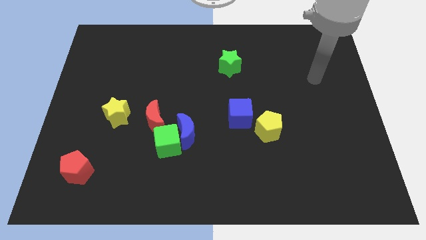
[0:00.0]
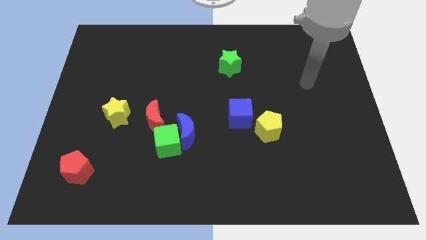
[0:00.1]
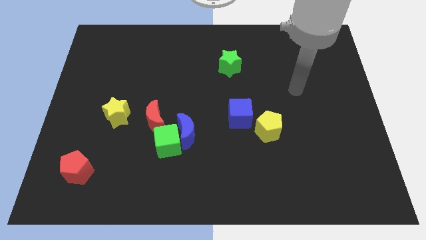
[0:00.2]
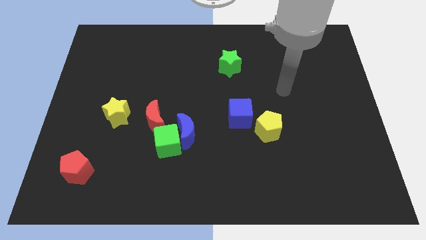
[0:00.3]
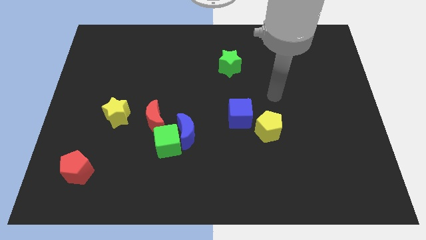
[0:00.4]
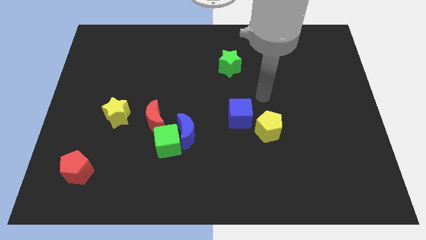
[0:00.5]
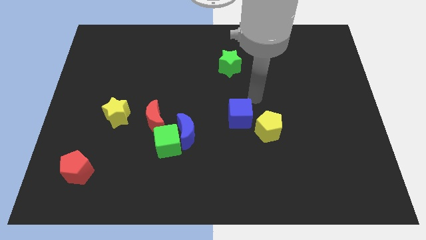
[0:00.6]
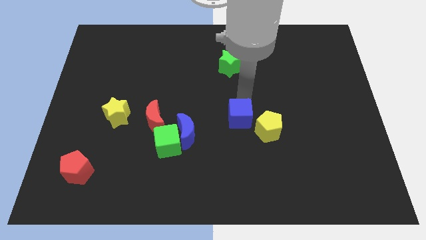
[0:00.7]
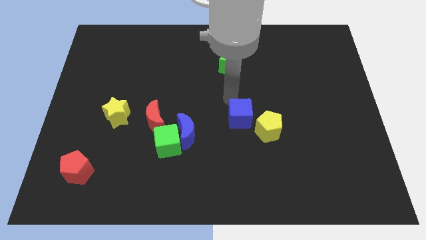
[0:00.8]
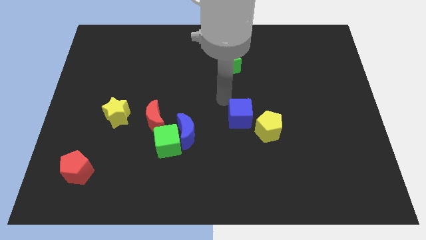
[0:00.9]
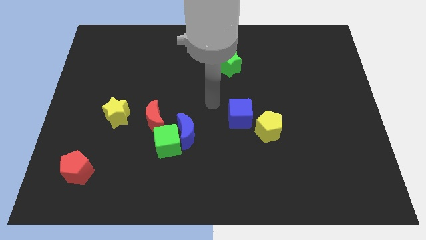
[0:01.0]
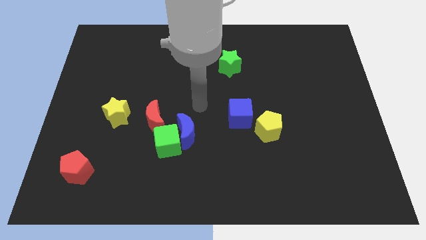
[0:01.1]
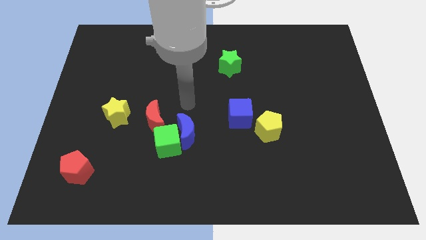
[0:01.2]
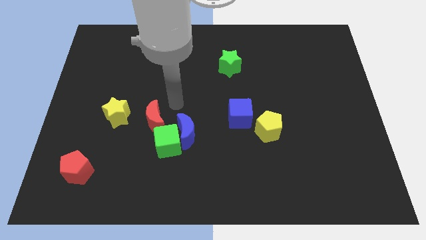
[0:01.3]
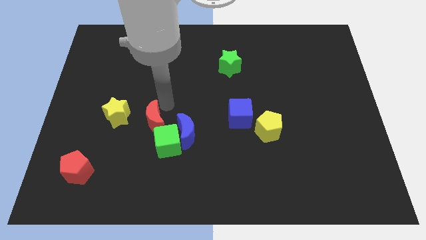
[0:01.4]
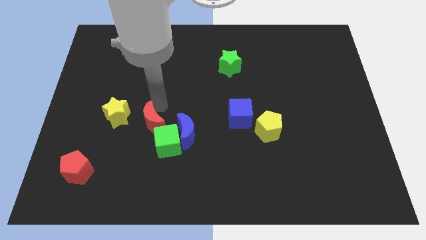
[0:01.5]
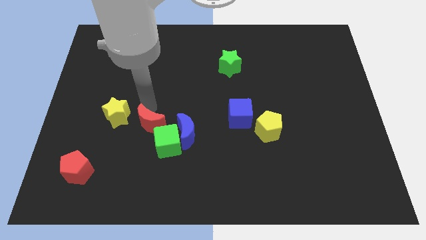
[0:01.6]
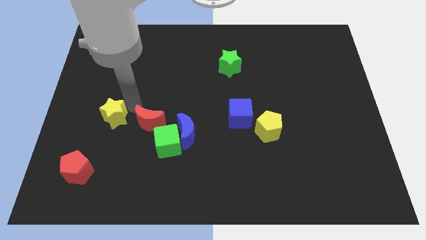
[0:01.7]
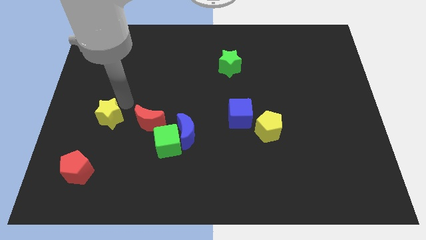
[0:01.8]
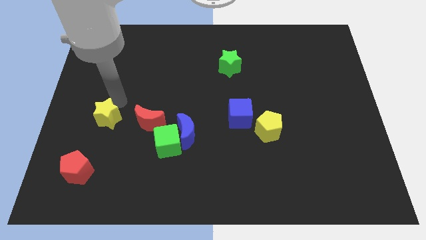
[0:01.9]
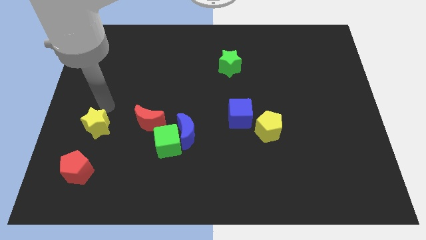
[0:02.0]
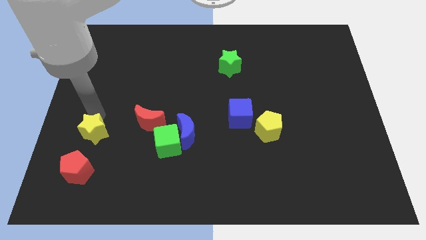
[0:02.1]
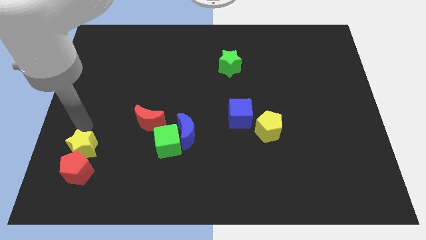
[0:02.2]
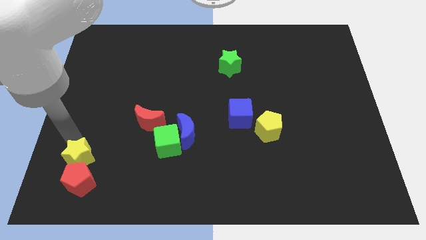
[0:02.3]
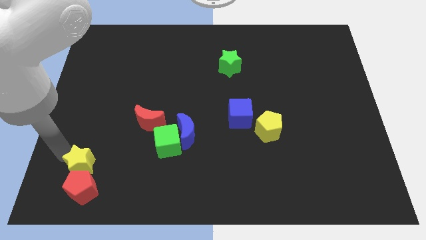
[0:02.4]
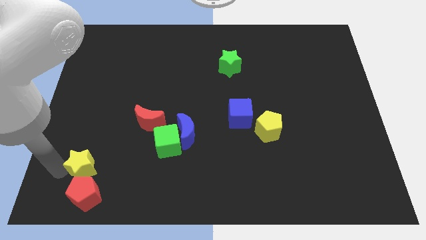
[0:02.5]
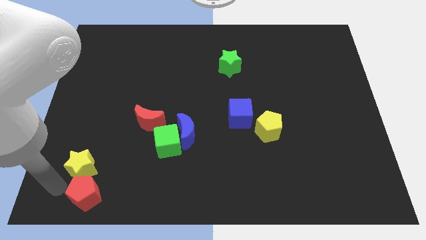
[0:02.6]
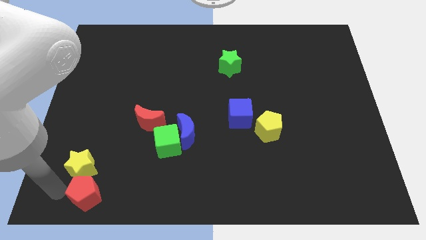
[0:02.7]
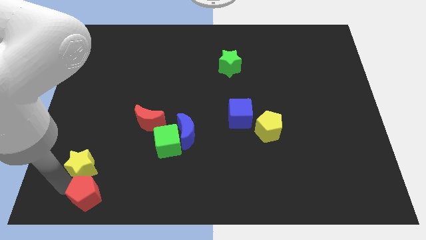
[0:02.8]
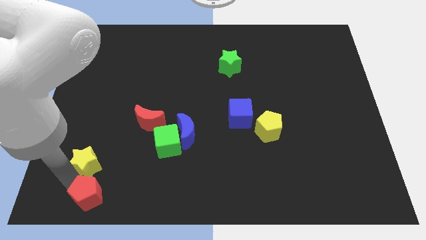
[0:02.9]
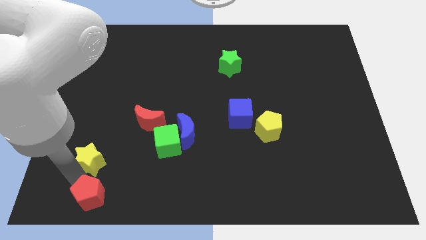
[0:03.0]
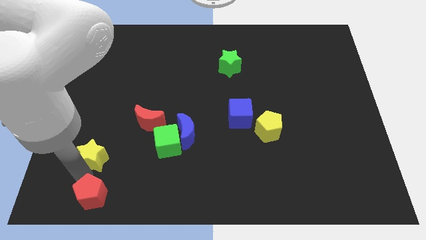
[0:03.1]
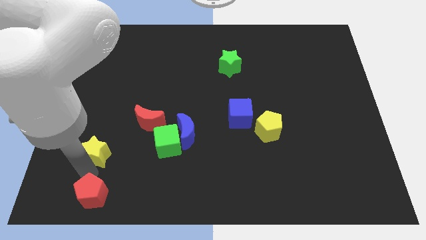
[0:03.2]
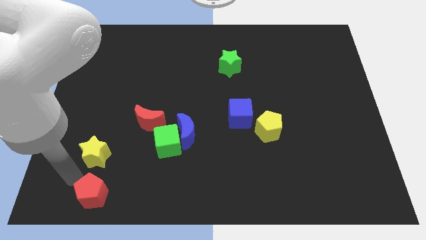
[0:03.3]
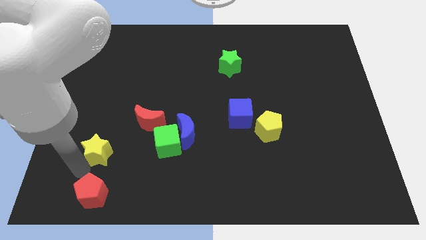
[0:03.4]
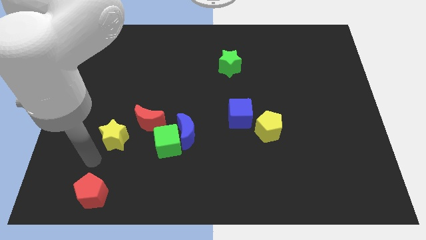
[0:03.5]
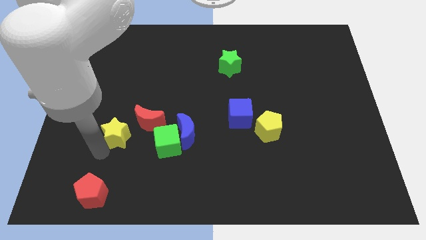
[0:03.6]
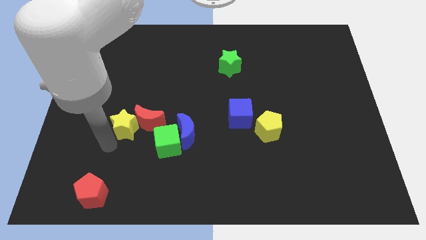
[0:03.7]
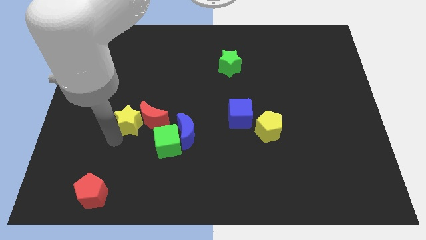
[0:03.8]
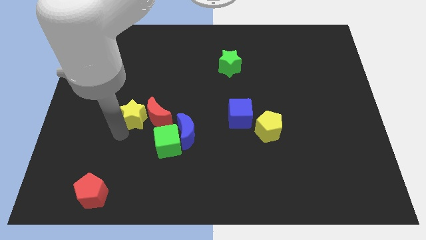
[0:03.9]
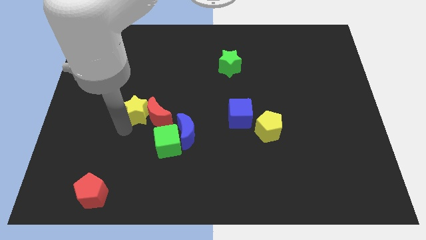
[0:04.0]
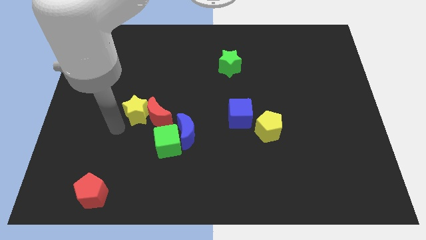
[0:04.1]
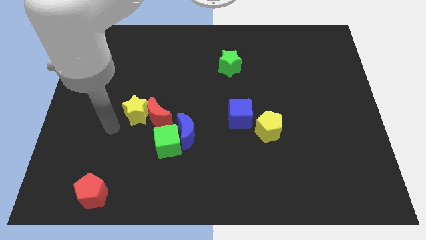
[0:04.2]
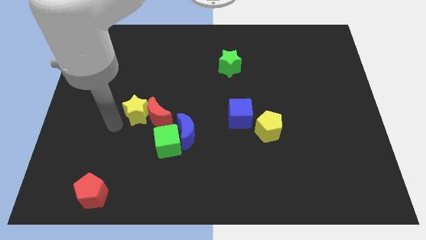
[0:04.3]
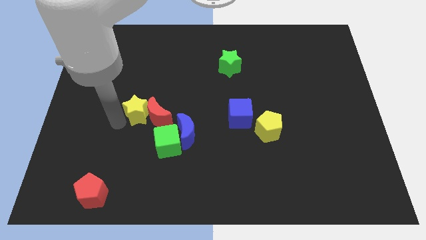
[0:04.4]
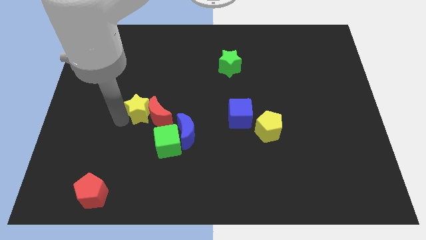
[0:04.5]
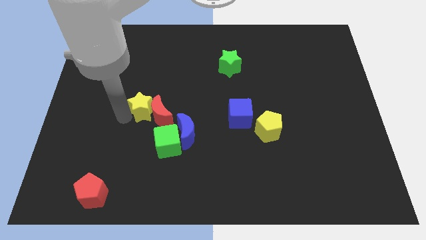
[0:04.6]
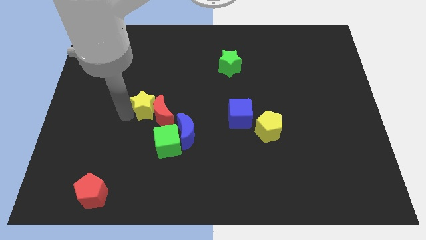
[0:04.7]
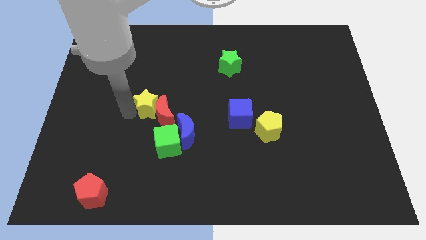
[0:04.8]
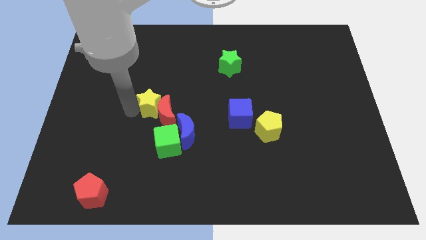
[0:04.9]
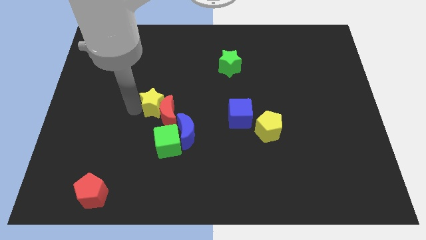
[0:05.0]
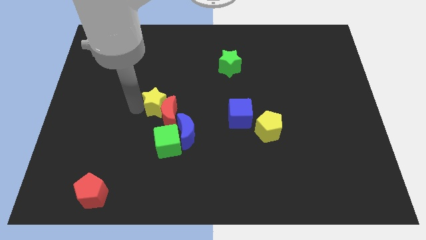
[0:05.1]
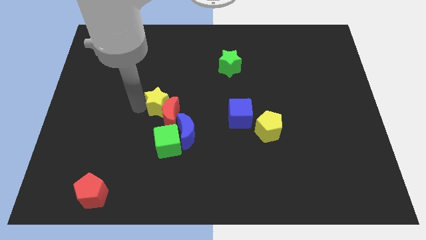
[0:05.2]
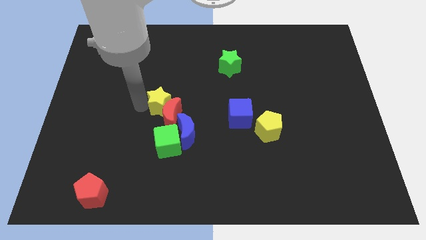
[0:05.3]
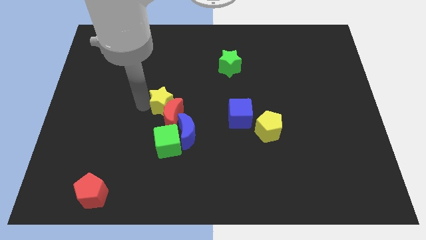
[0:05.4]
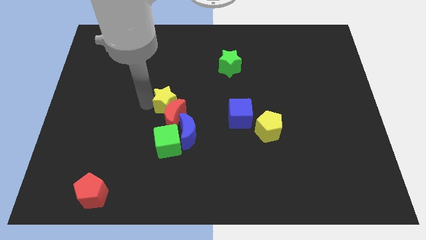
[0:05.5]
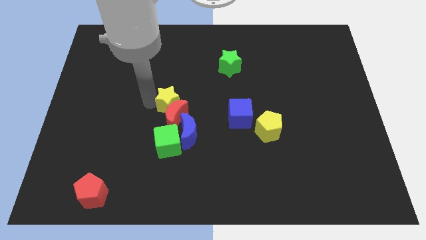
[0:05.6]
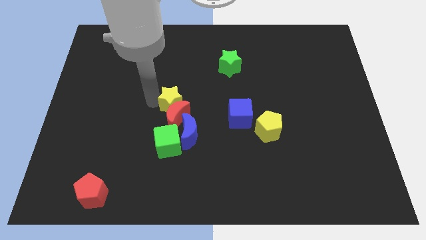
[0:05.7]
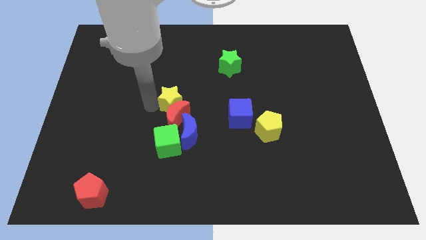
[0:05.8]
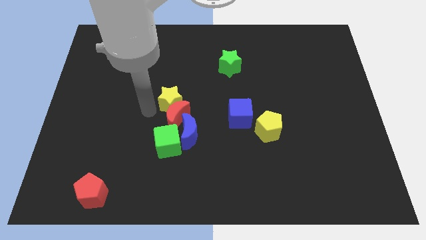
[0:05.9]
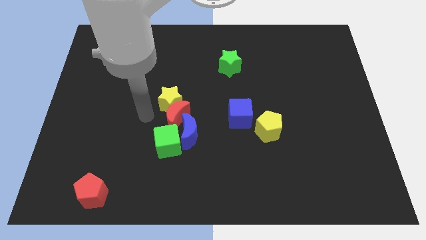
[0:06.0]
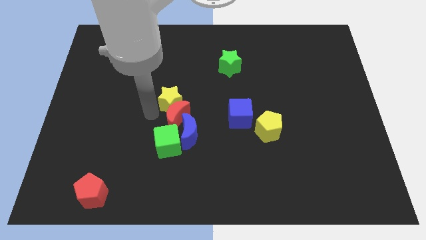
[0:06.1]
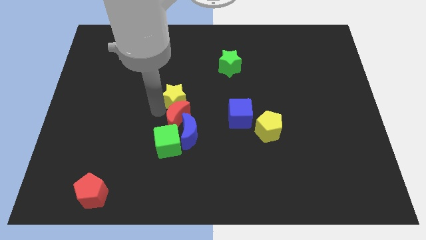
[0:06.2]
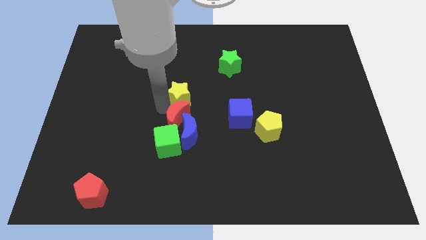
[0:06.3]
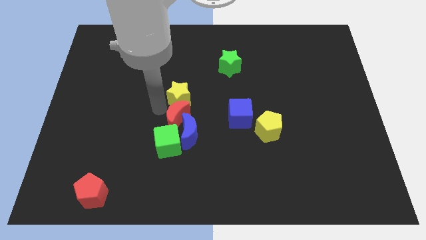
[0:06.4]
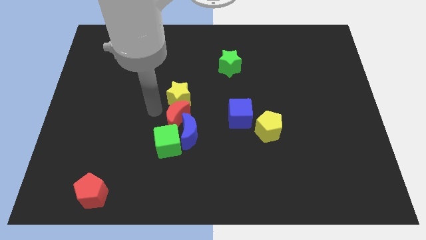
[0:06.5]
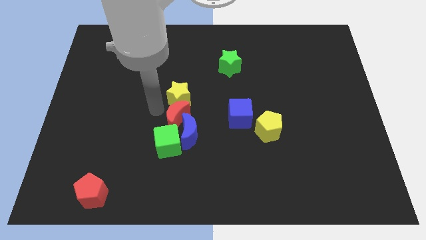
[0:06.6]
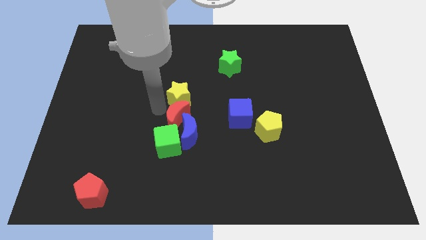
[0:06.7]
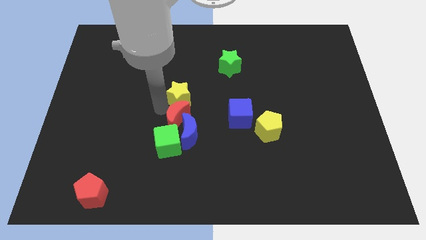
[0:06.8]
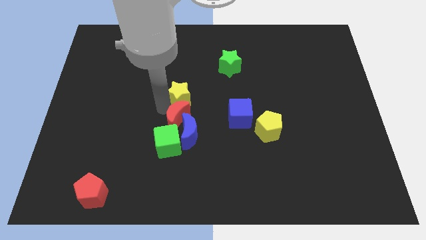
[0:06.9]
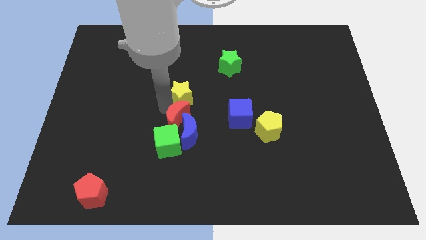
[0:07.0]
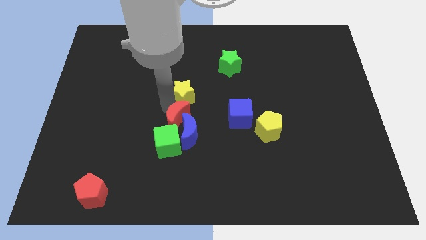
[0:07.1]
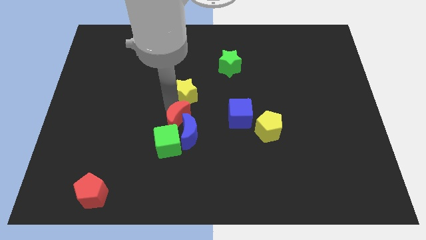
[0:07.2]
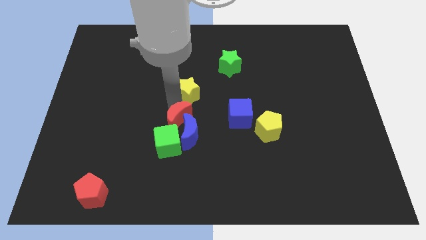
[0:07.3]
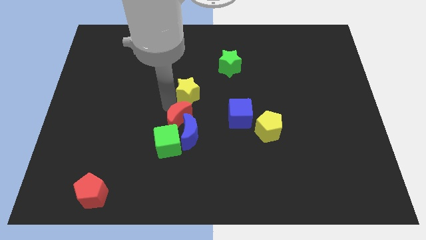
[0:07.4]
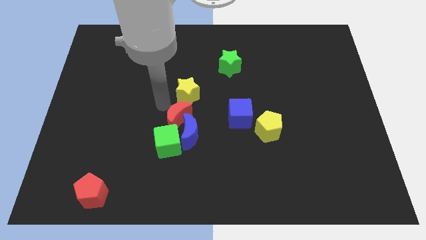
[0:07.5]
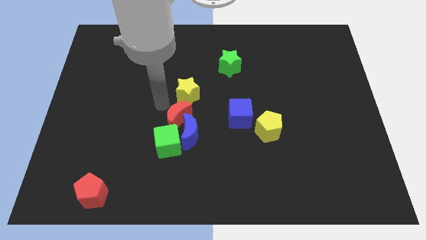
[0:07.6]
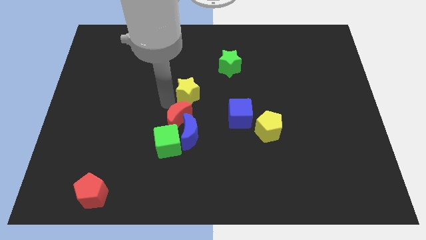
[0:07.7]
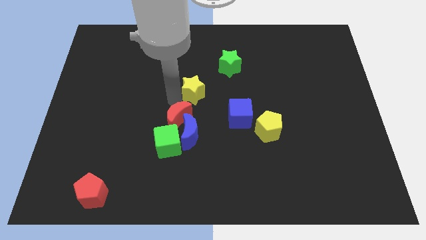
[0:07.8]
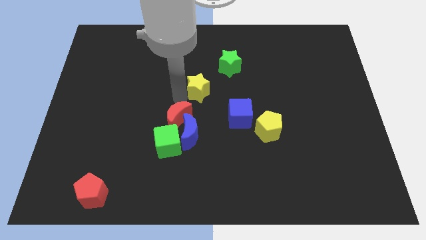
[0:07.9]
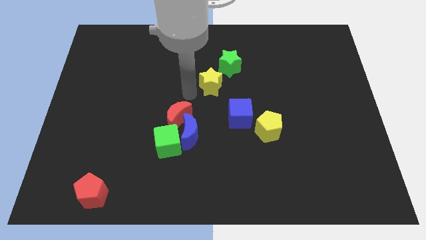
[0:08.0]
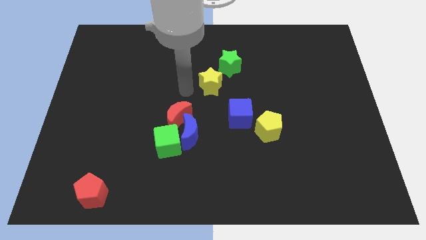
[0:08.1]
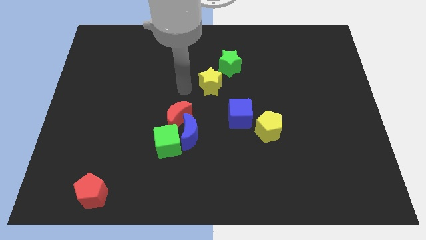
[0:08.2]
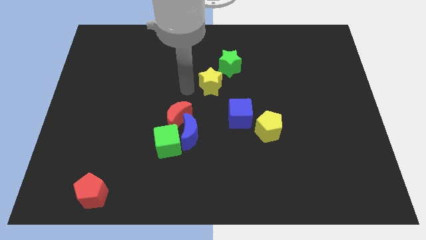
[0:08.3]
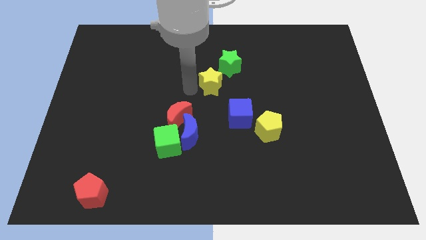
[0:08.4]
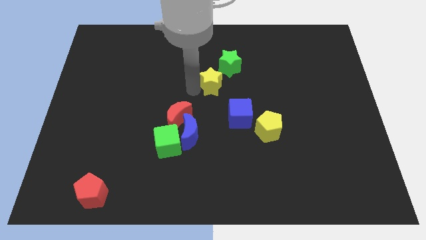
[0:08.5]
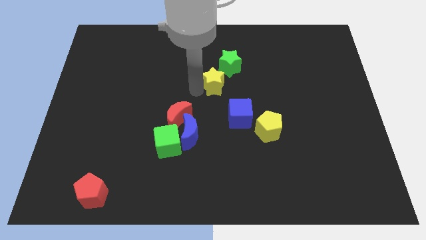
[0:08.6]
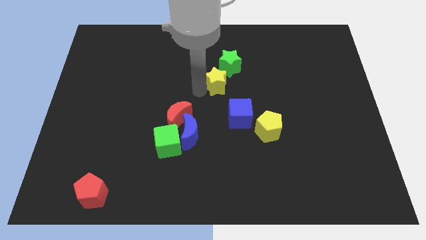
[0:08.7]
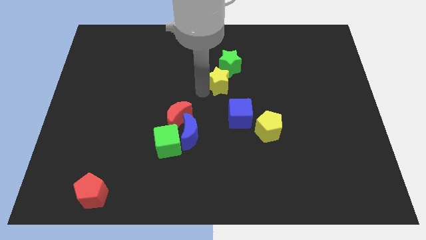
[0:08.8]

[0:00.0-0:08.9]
move the yellow star to the top of the blue cube
